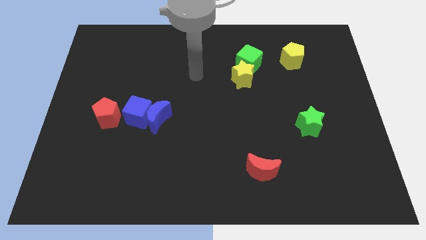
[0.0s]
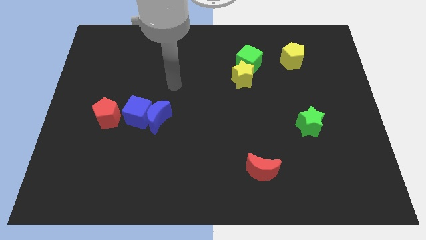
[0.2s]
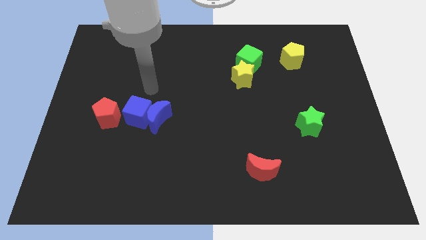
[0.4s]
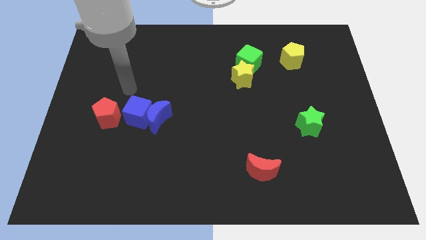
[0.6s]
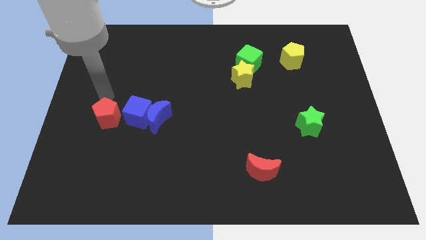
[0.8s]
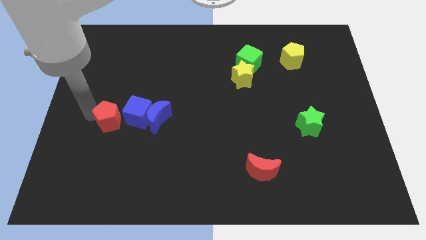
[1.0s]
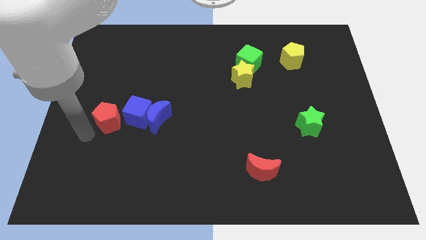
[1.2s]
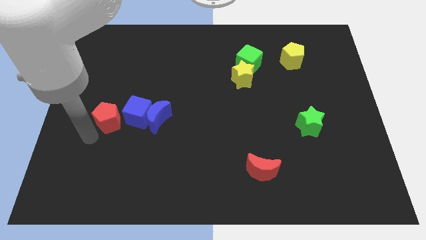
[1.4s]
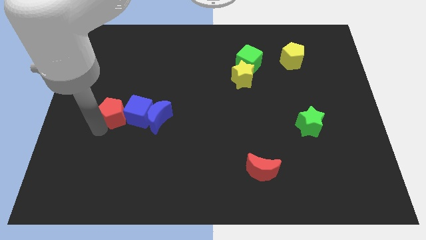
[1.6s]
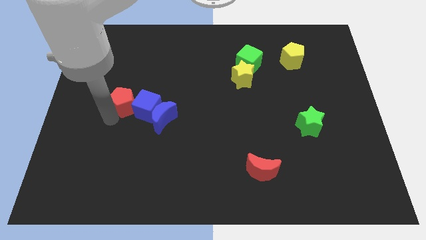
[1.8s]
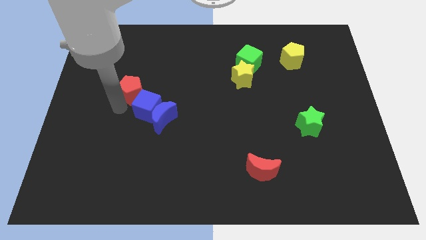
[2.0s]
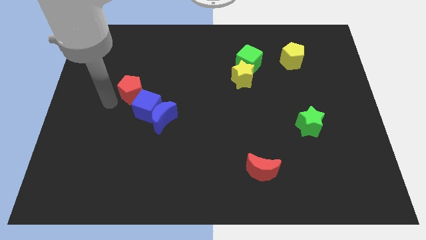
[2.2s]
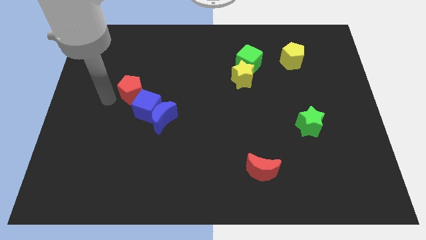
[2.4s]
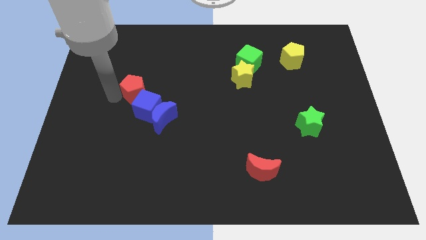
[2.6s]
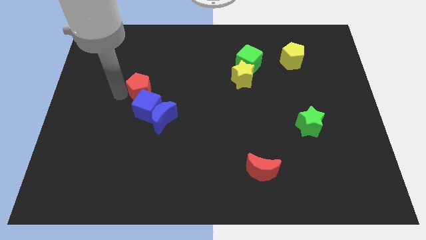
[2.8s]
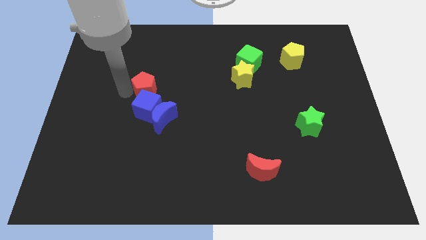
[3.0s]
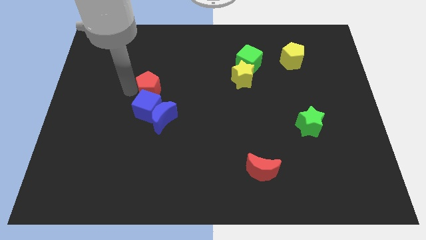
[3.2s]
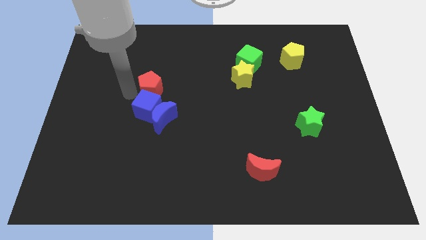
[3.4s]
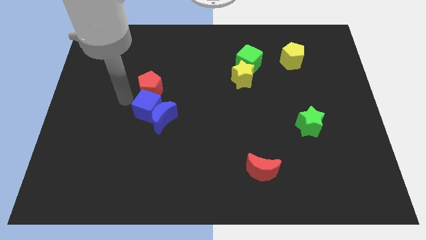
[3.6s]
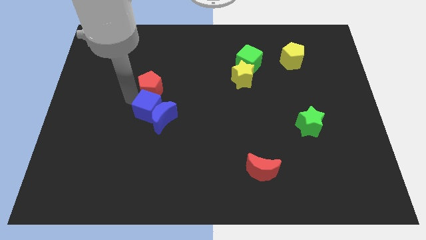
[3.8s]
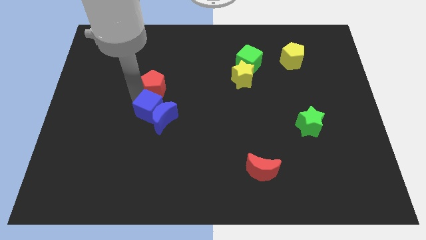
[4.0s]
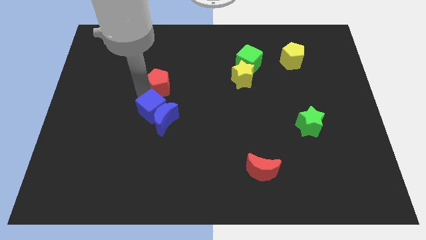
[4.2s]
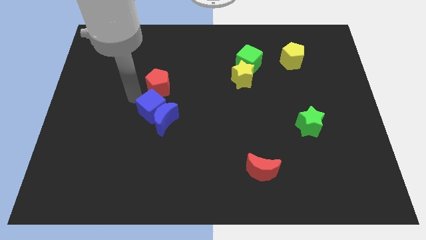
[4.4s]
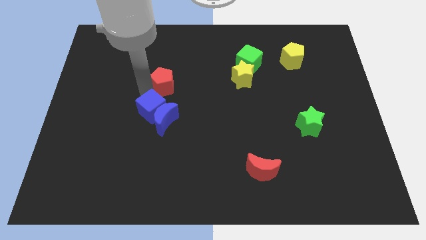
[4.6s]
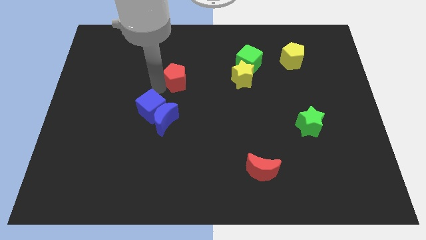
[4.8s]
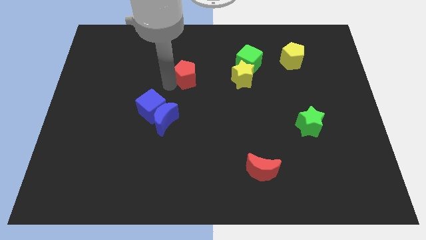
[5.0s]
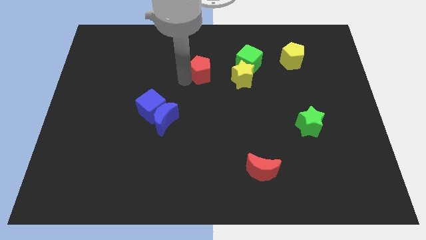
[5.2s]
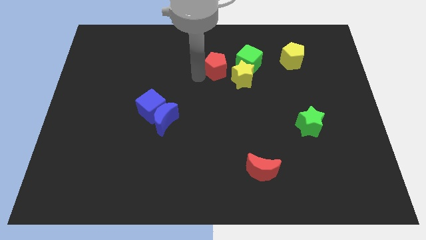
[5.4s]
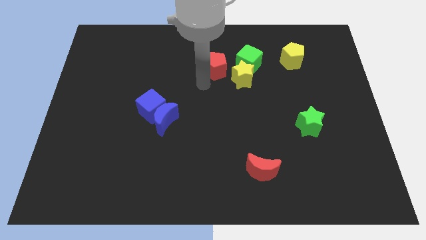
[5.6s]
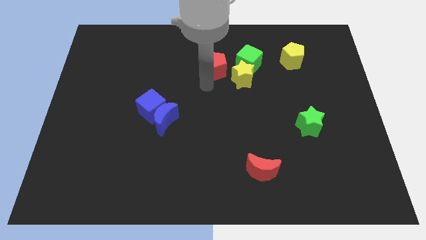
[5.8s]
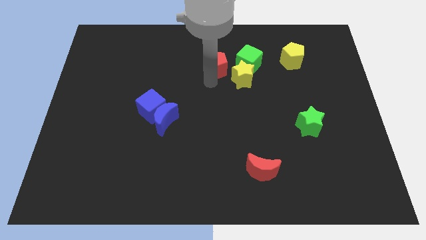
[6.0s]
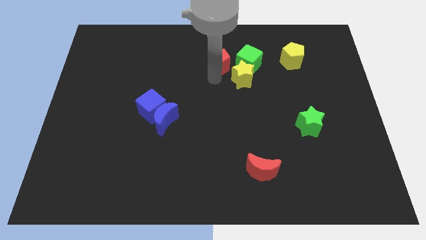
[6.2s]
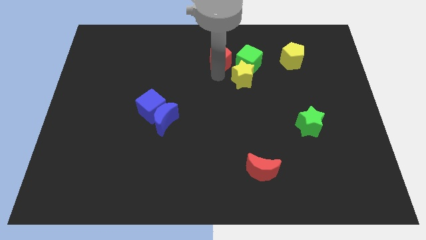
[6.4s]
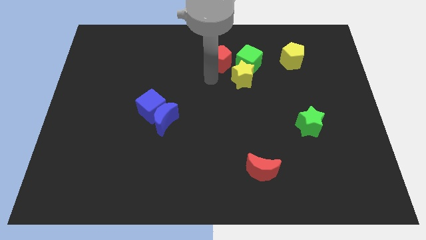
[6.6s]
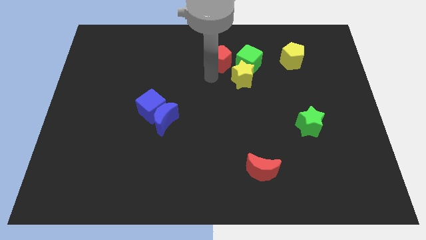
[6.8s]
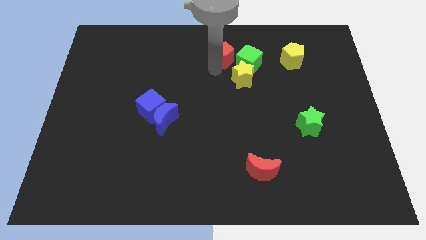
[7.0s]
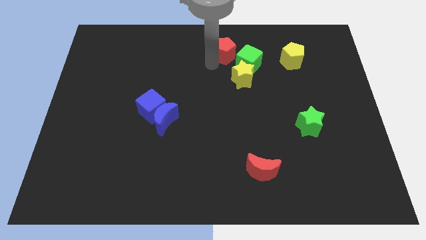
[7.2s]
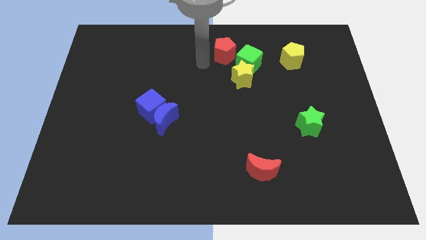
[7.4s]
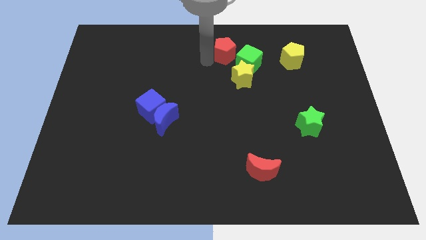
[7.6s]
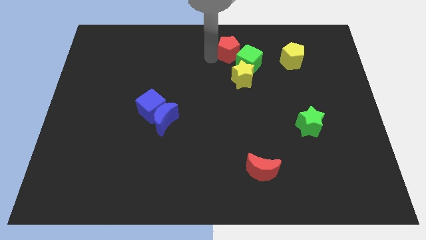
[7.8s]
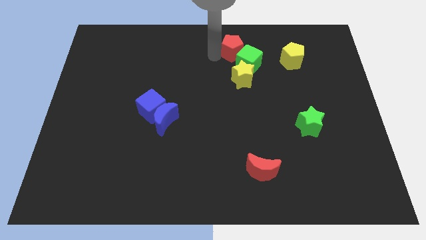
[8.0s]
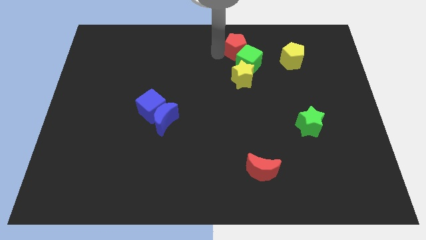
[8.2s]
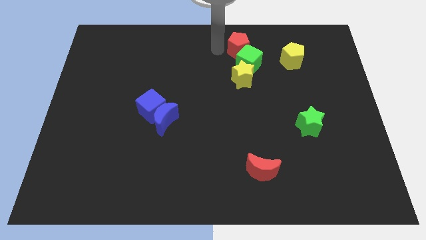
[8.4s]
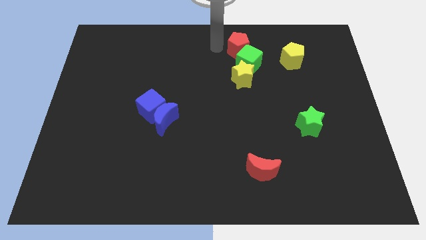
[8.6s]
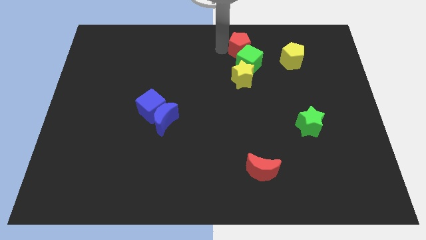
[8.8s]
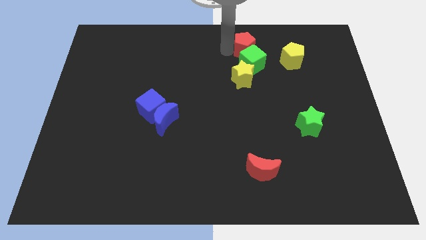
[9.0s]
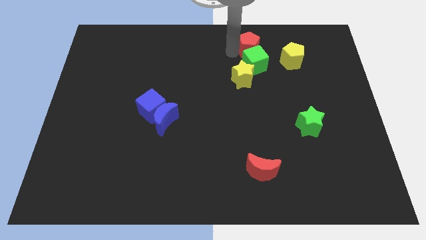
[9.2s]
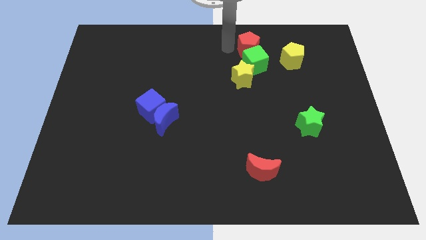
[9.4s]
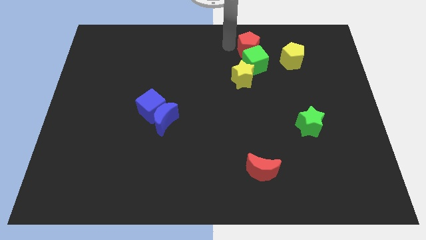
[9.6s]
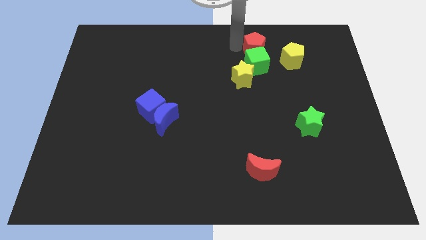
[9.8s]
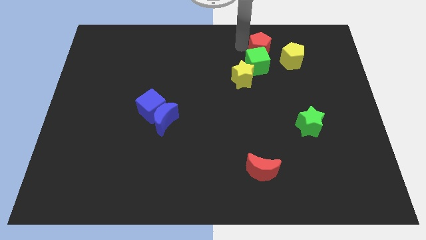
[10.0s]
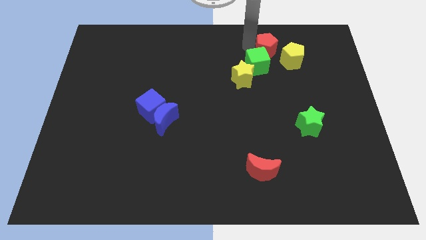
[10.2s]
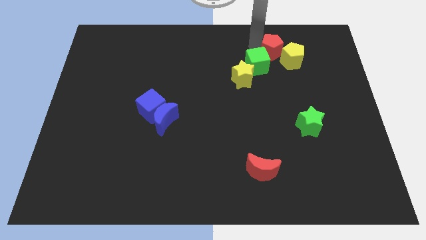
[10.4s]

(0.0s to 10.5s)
push the red pentagon to the yellow pentagon

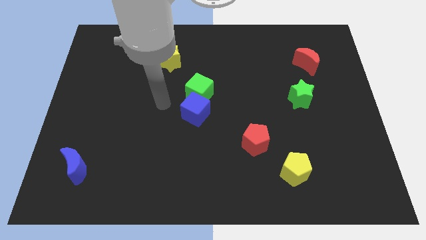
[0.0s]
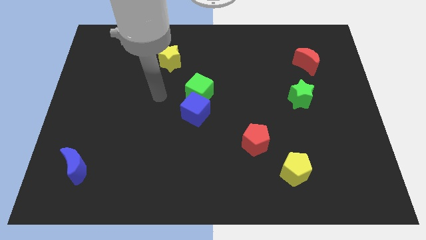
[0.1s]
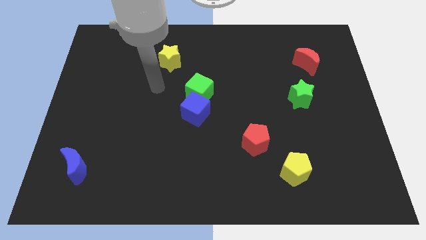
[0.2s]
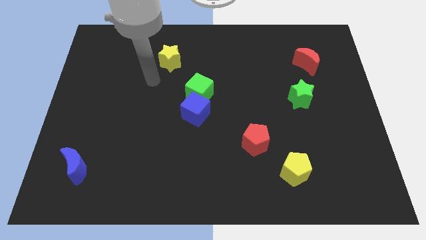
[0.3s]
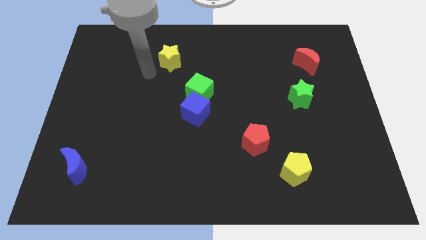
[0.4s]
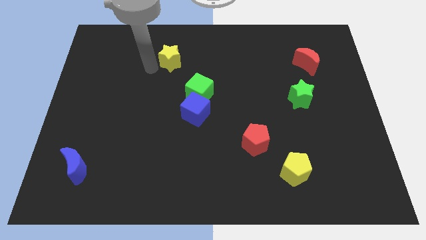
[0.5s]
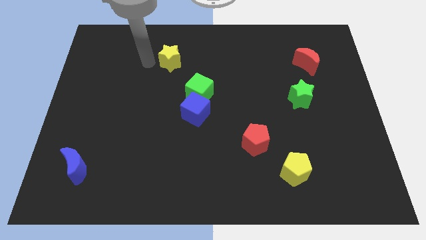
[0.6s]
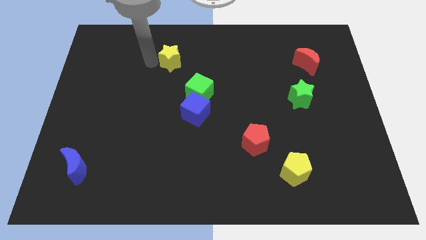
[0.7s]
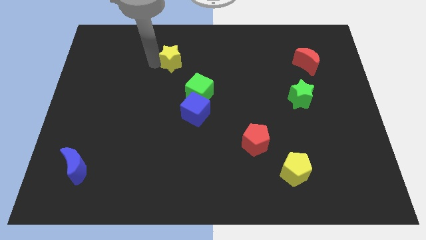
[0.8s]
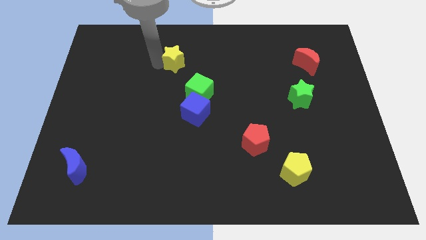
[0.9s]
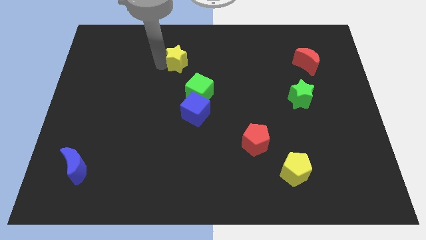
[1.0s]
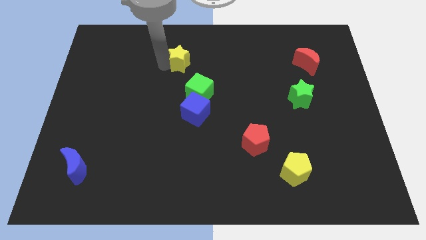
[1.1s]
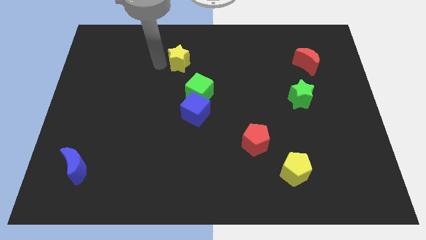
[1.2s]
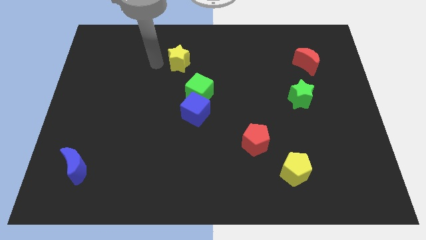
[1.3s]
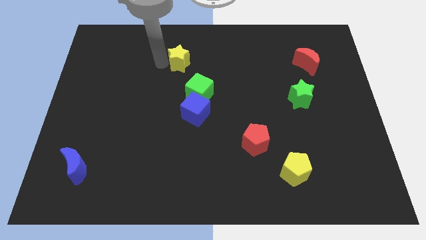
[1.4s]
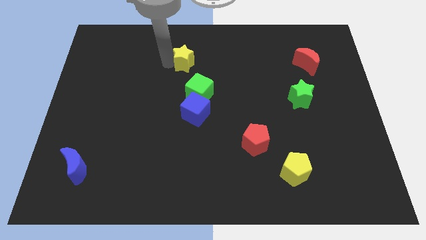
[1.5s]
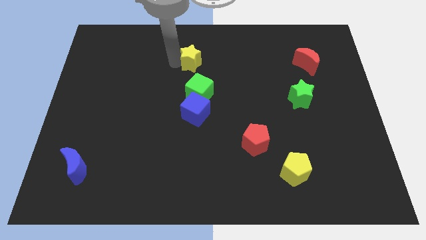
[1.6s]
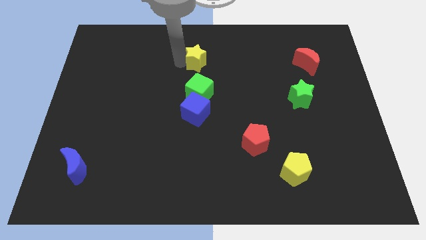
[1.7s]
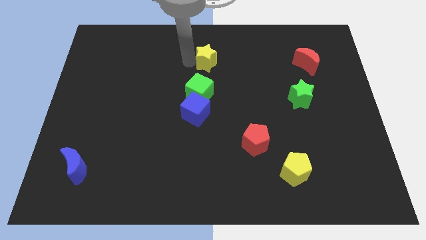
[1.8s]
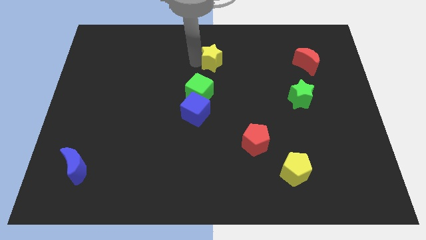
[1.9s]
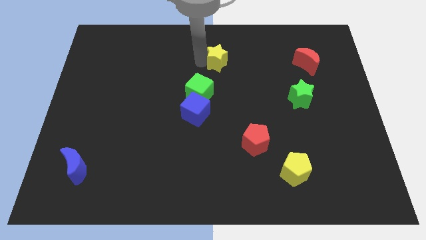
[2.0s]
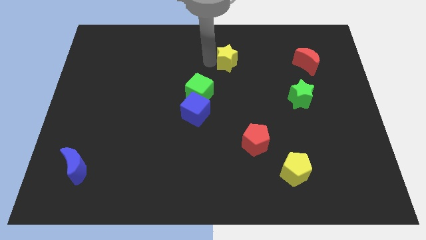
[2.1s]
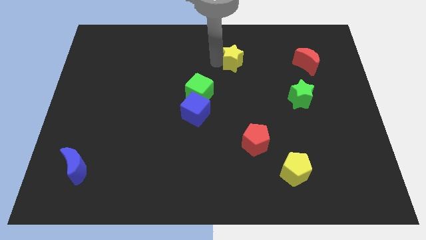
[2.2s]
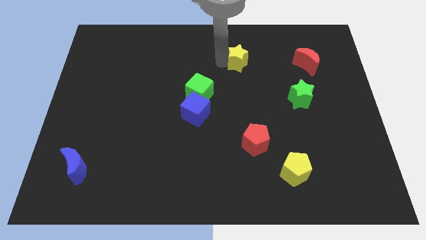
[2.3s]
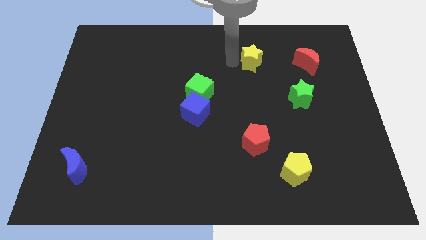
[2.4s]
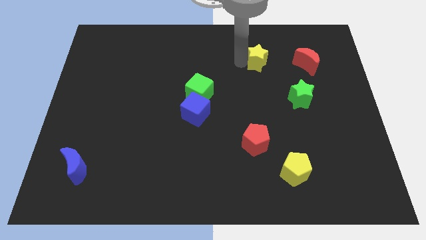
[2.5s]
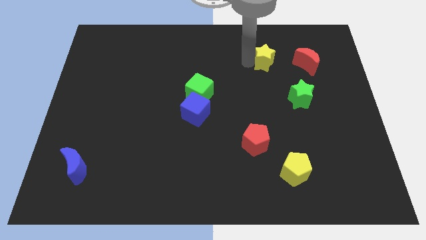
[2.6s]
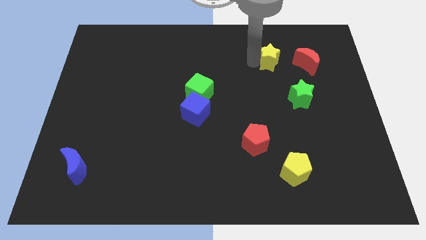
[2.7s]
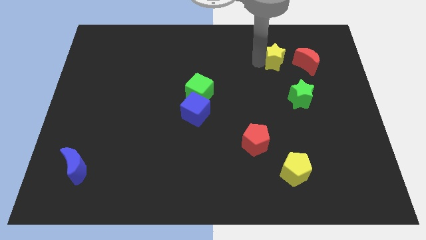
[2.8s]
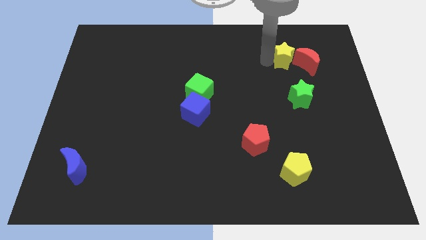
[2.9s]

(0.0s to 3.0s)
push the yellow star next to the red moon
